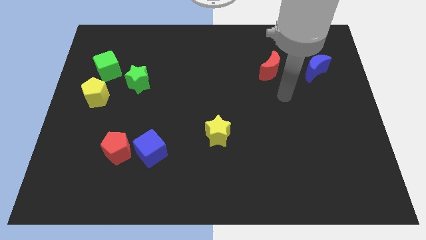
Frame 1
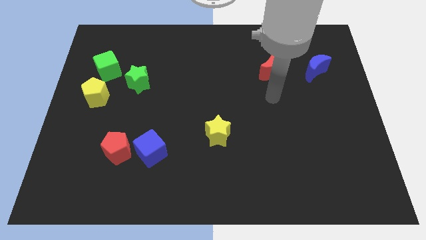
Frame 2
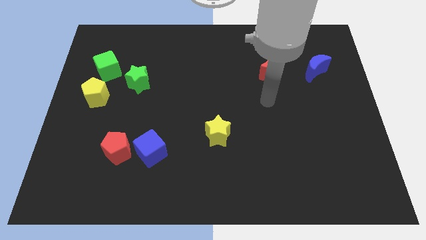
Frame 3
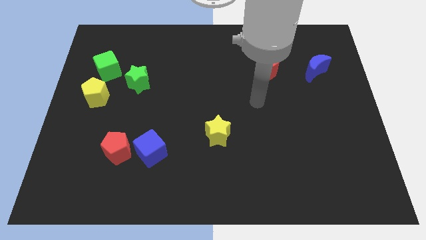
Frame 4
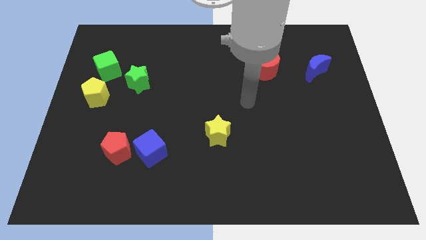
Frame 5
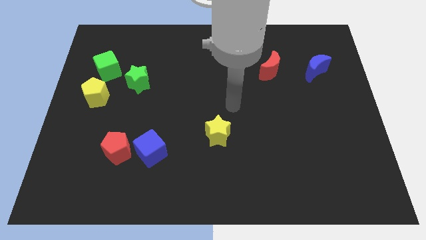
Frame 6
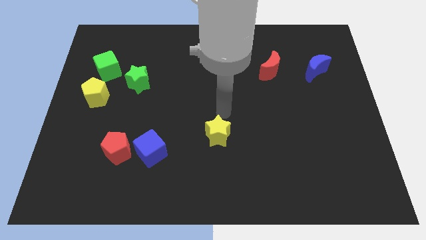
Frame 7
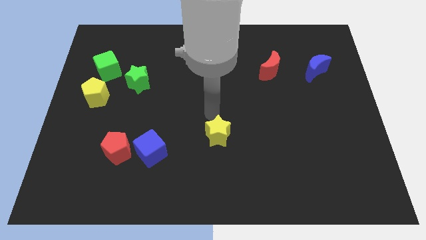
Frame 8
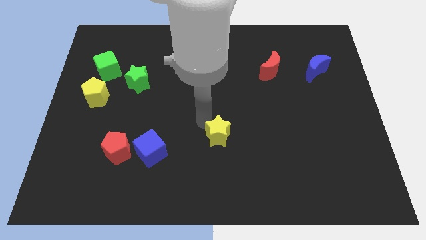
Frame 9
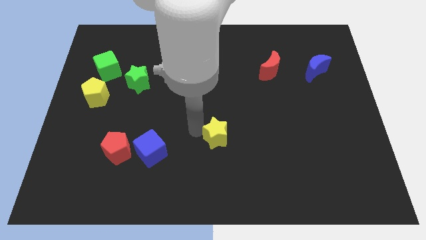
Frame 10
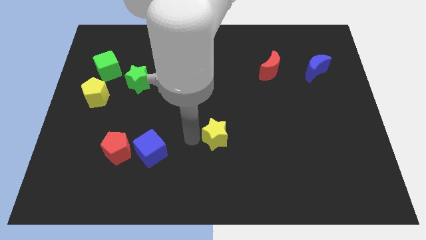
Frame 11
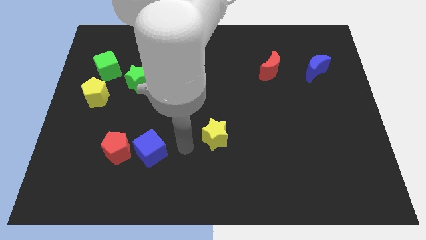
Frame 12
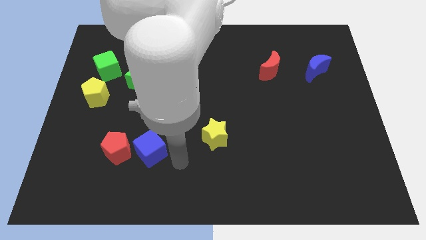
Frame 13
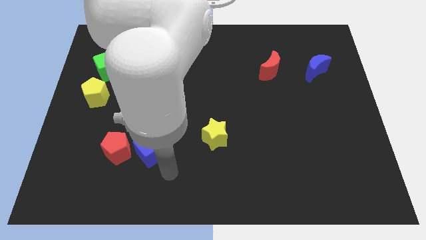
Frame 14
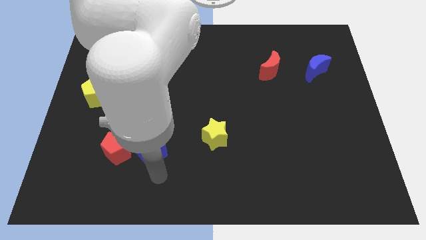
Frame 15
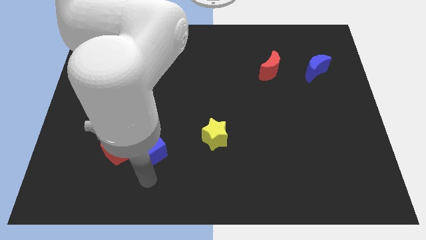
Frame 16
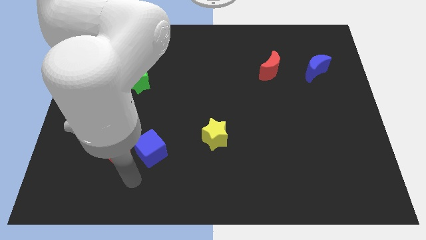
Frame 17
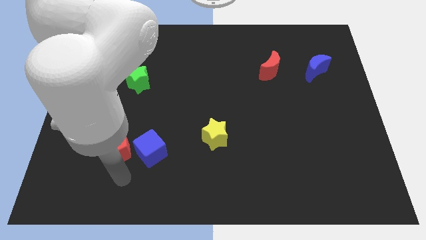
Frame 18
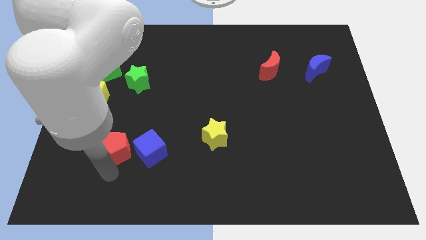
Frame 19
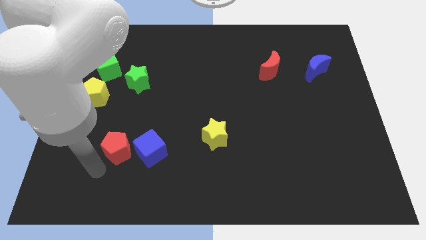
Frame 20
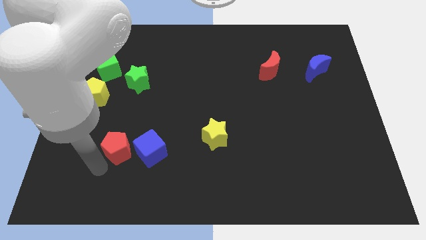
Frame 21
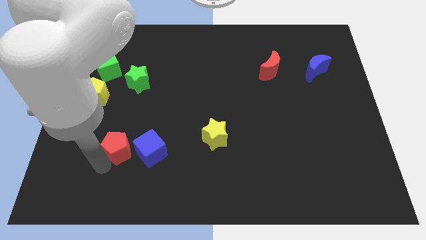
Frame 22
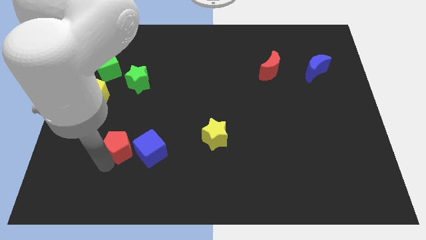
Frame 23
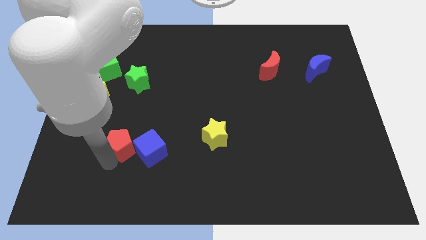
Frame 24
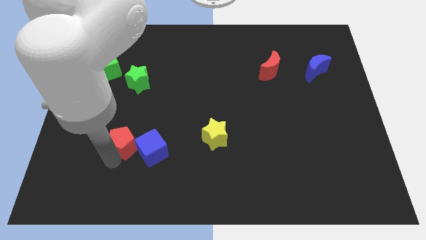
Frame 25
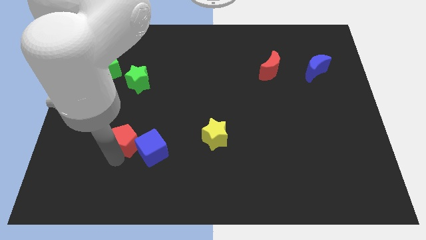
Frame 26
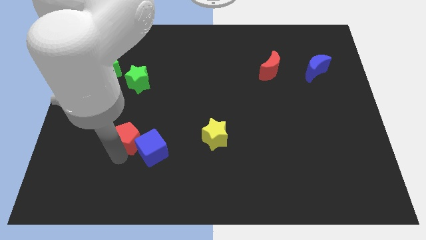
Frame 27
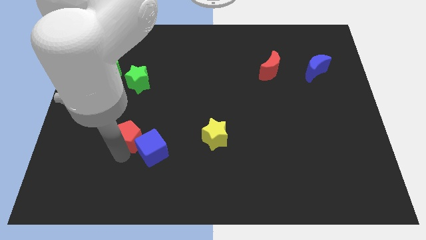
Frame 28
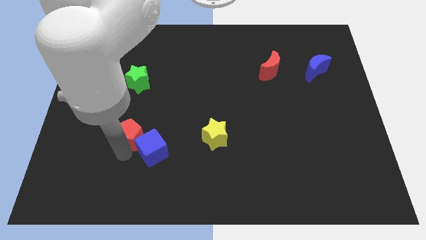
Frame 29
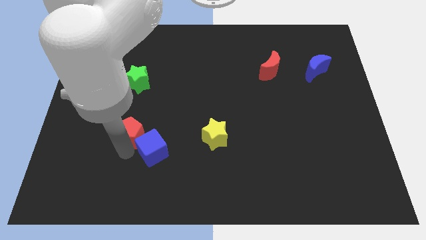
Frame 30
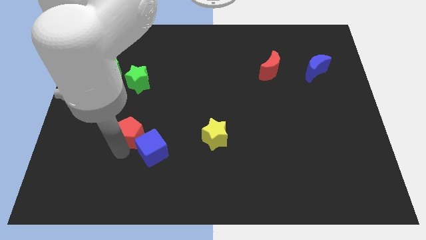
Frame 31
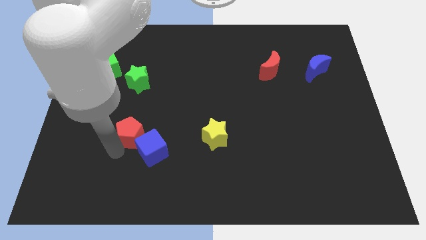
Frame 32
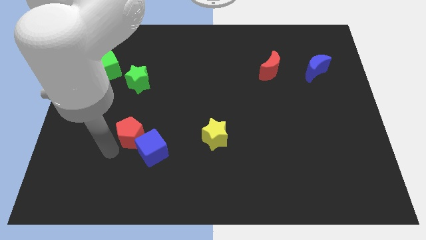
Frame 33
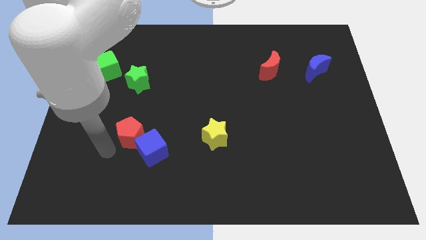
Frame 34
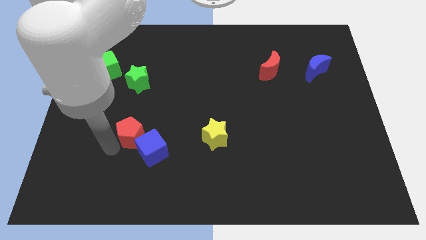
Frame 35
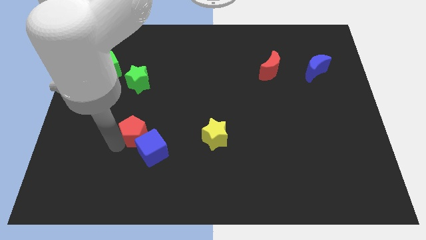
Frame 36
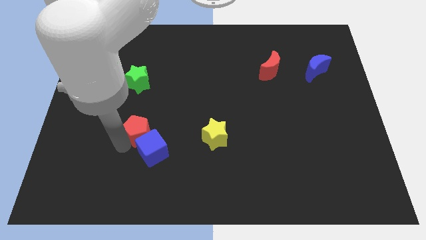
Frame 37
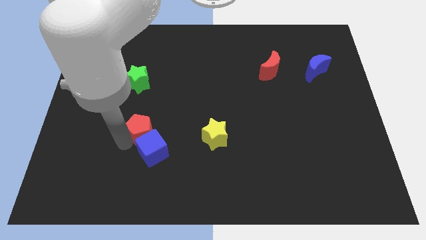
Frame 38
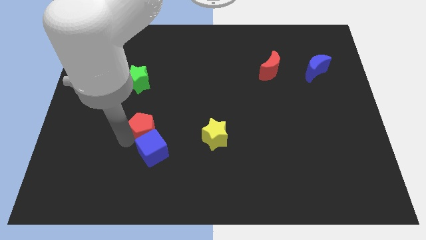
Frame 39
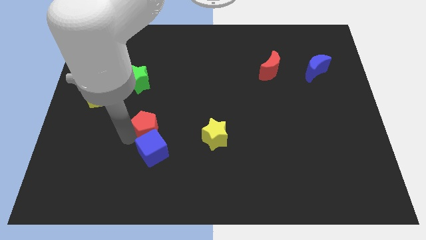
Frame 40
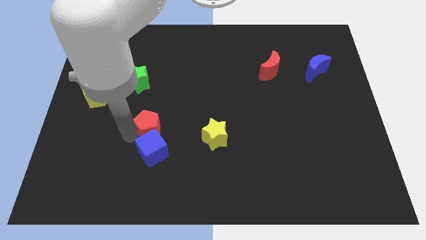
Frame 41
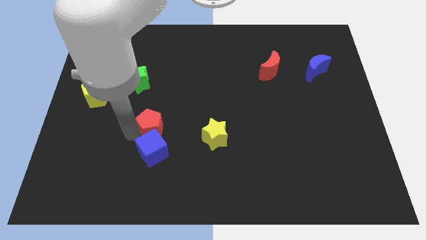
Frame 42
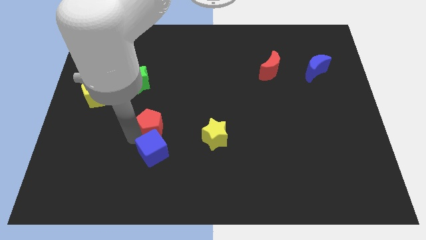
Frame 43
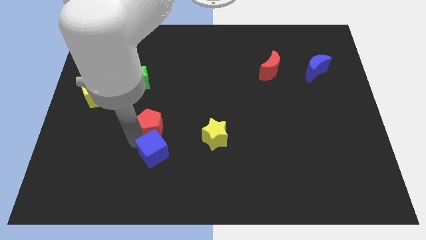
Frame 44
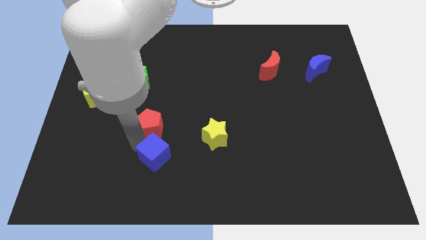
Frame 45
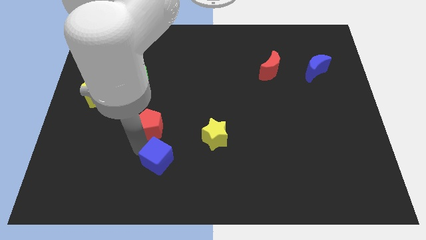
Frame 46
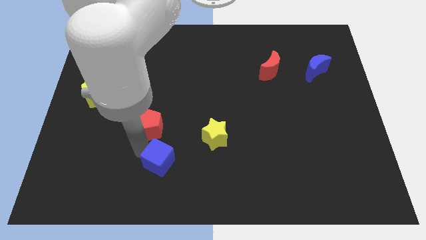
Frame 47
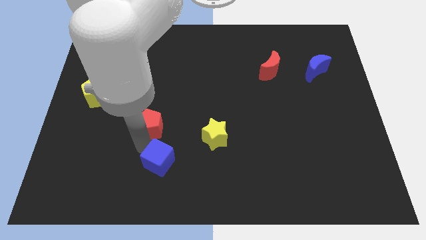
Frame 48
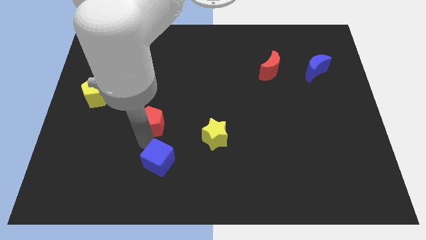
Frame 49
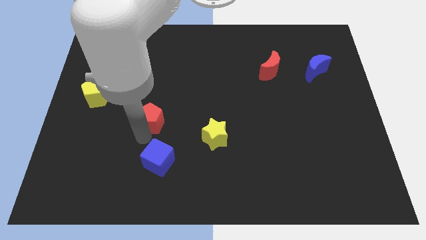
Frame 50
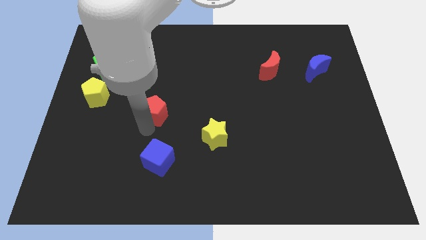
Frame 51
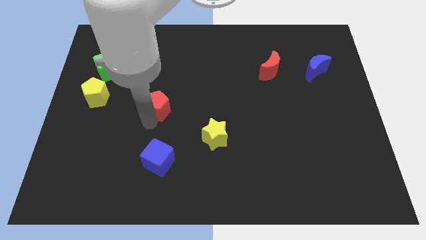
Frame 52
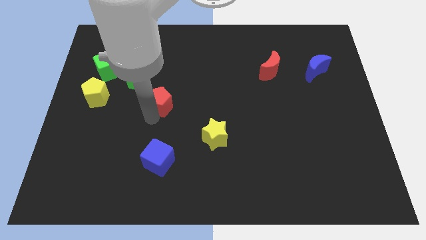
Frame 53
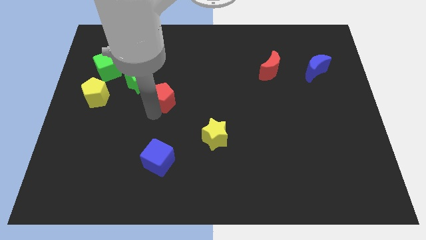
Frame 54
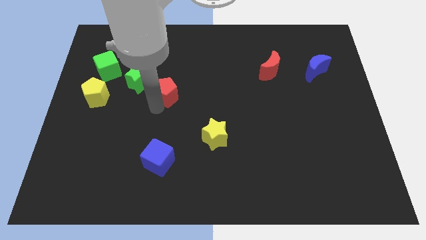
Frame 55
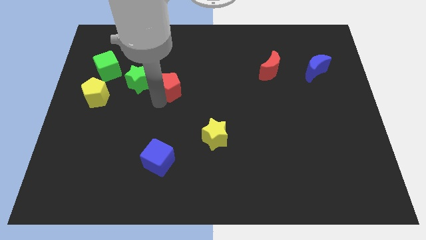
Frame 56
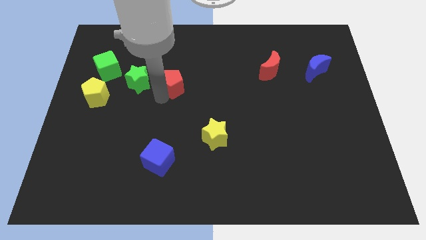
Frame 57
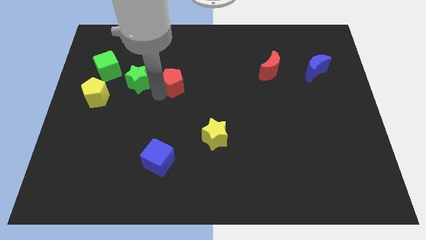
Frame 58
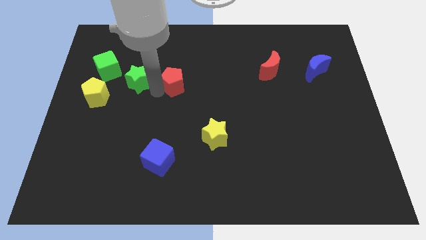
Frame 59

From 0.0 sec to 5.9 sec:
move the red pentagon up and to the right diagonally

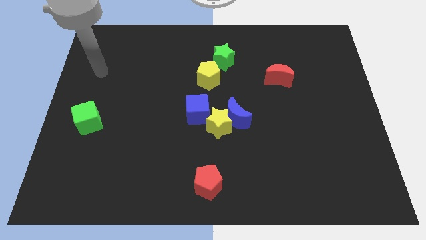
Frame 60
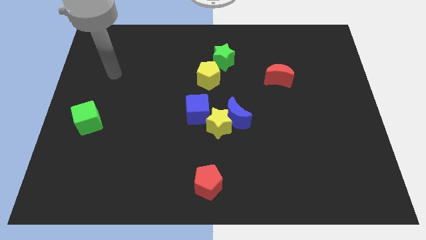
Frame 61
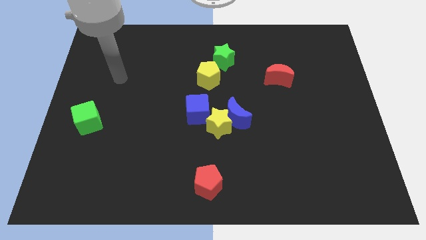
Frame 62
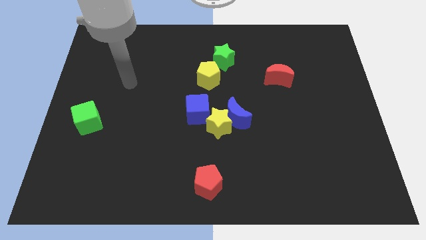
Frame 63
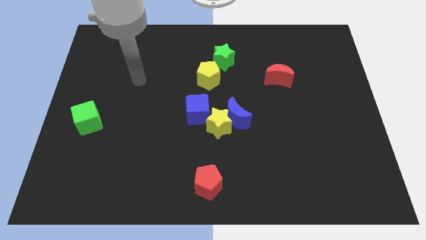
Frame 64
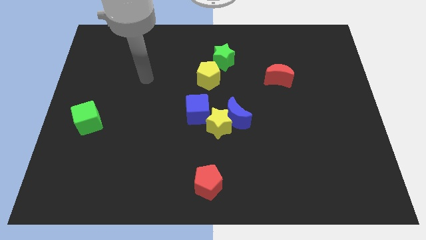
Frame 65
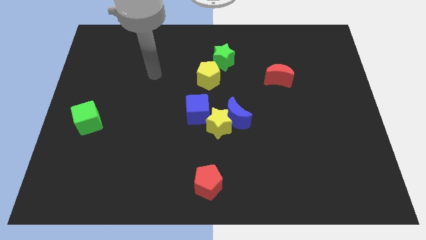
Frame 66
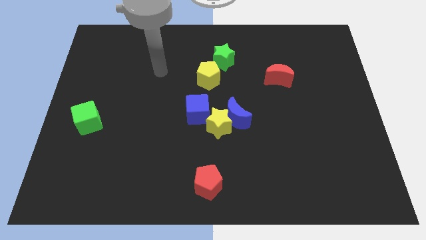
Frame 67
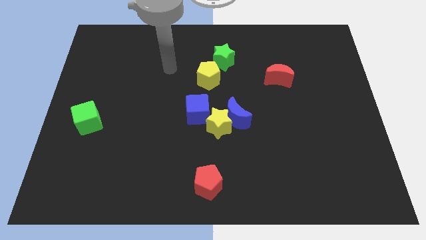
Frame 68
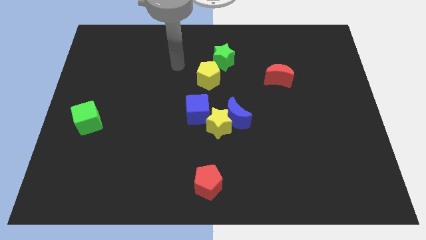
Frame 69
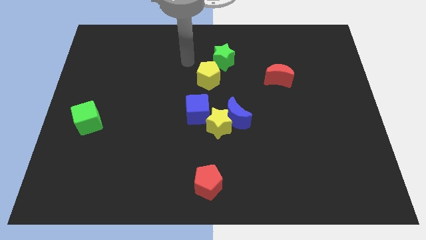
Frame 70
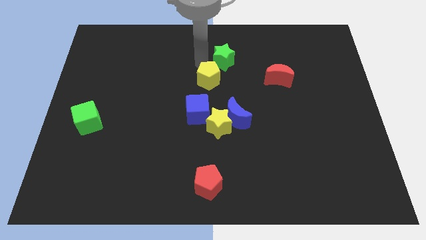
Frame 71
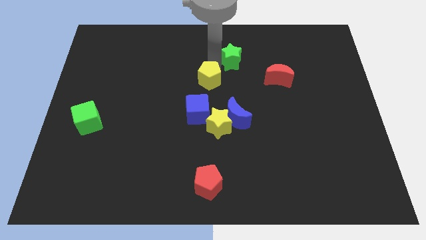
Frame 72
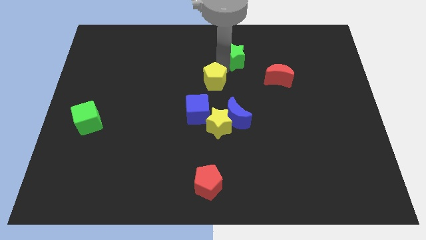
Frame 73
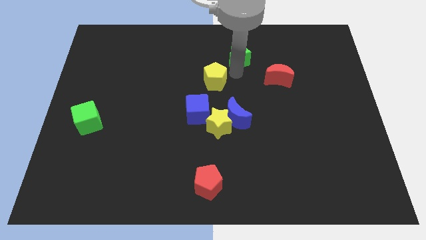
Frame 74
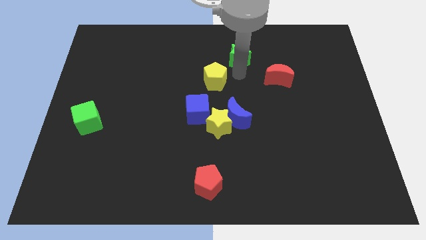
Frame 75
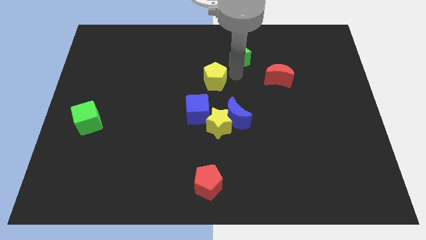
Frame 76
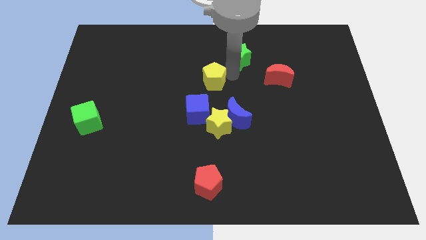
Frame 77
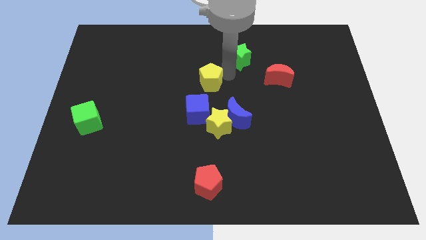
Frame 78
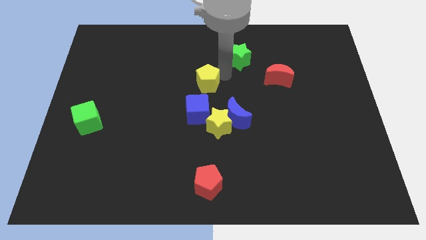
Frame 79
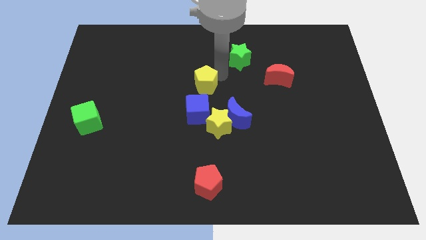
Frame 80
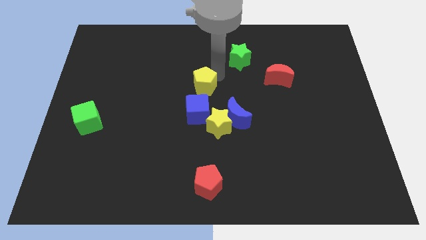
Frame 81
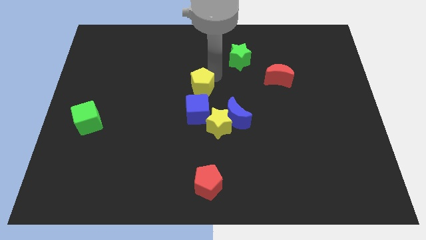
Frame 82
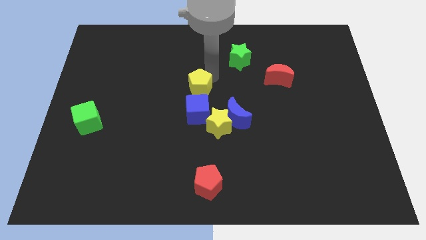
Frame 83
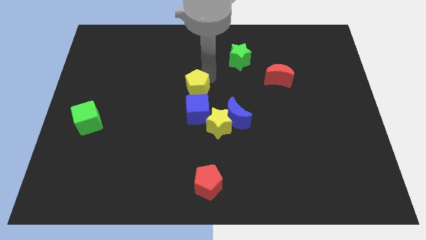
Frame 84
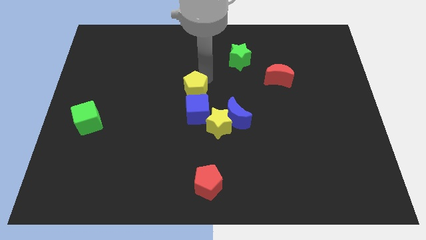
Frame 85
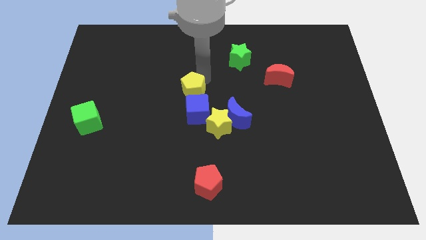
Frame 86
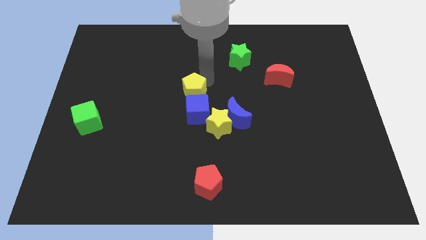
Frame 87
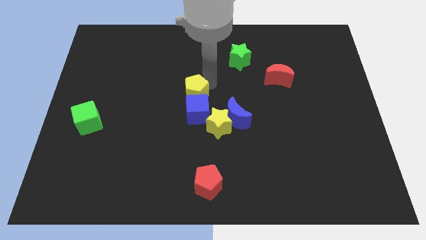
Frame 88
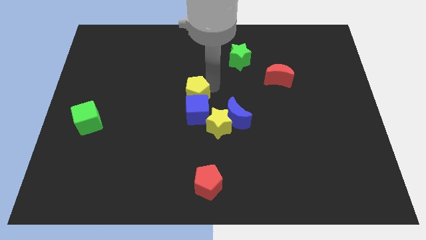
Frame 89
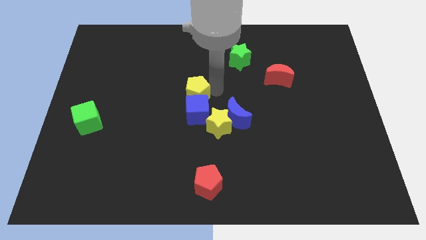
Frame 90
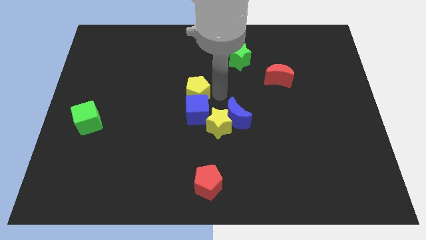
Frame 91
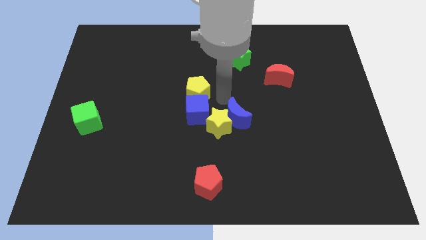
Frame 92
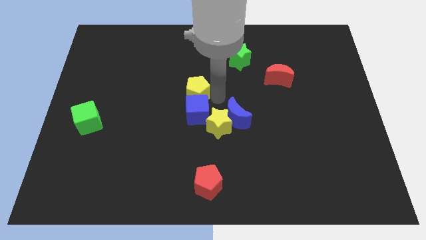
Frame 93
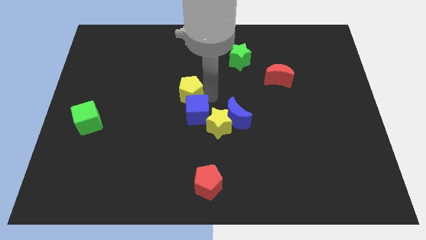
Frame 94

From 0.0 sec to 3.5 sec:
move the yellow pentagon down and to the left a little
